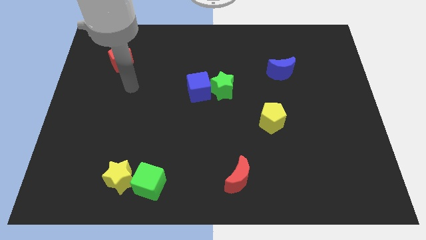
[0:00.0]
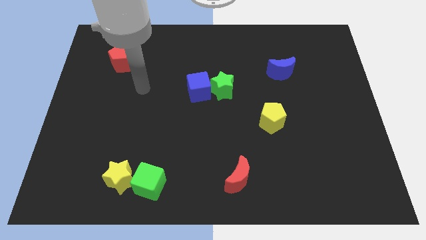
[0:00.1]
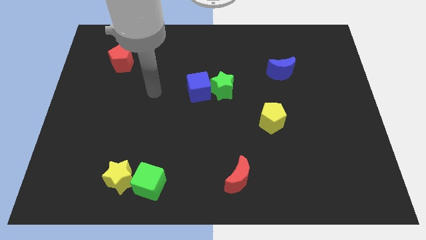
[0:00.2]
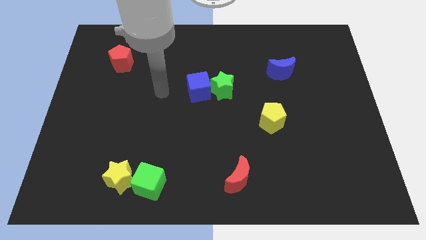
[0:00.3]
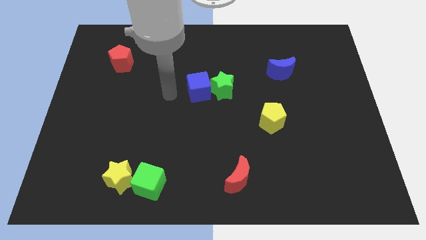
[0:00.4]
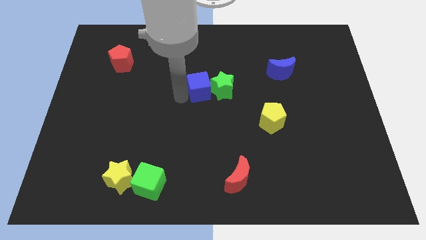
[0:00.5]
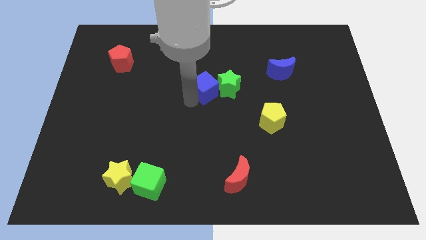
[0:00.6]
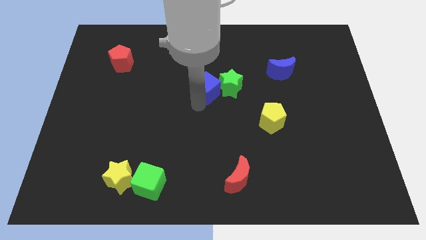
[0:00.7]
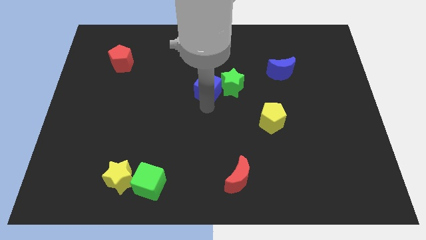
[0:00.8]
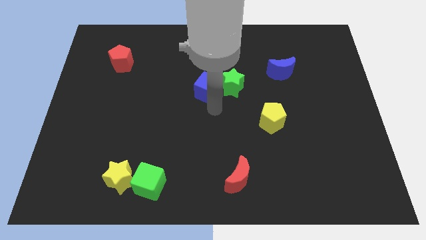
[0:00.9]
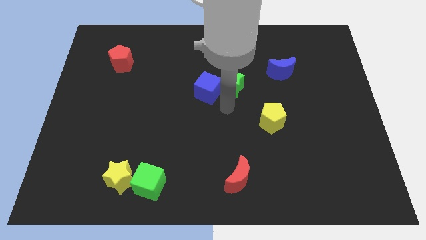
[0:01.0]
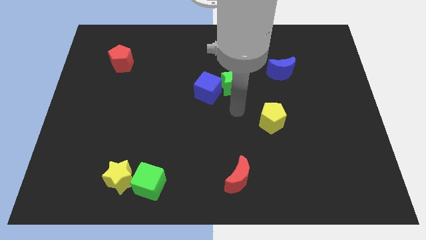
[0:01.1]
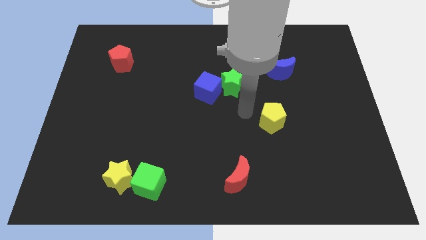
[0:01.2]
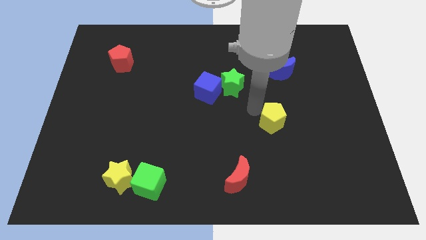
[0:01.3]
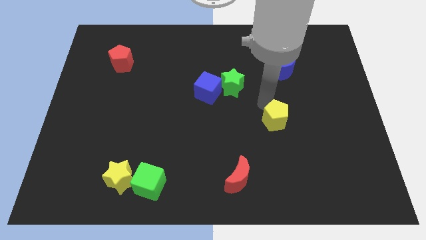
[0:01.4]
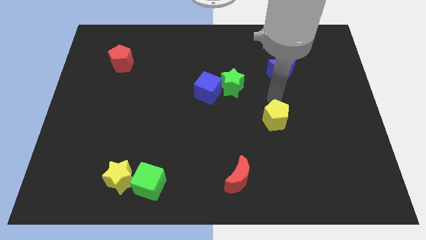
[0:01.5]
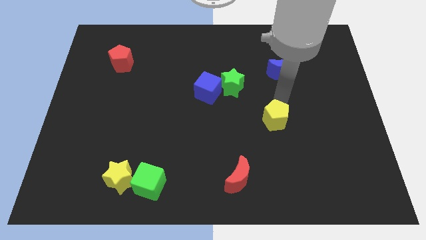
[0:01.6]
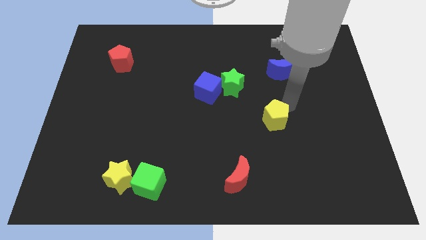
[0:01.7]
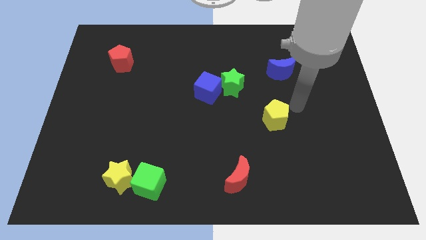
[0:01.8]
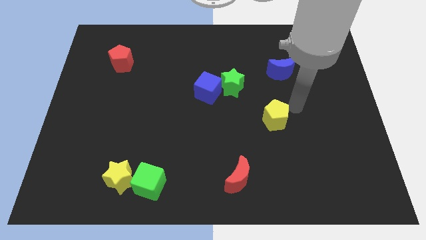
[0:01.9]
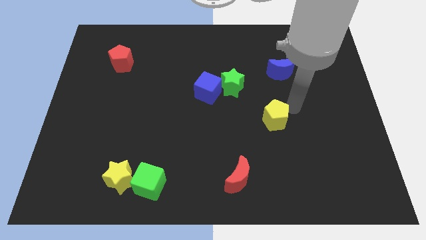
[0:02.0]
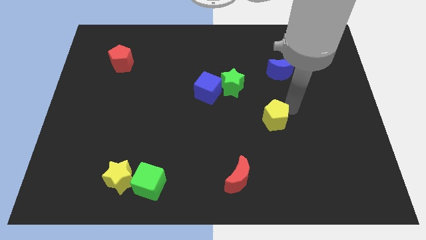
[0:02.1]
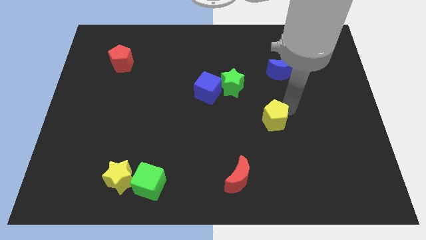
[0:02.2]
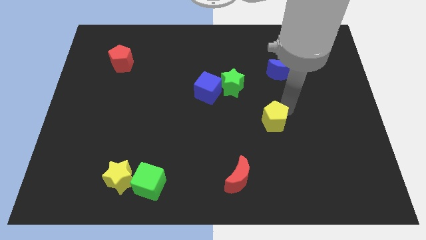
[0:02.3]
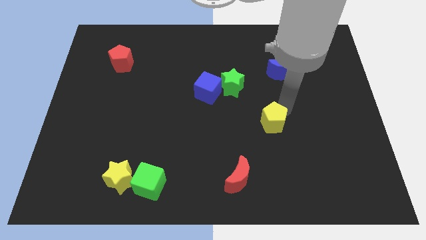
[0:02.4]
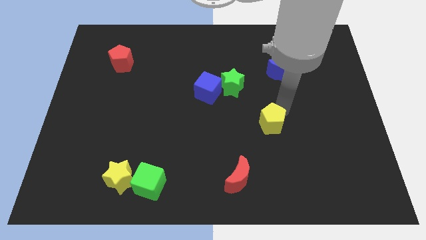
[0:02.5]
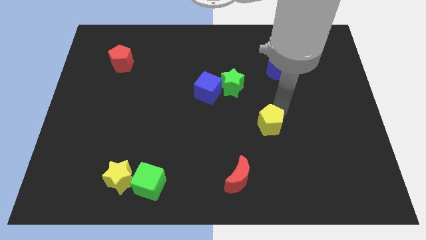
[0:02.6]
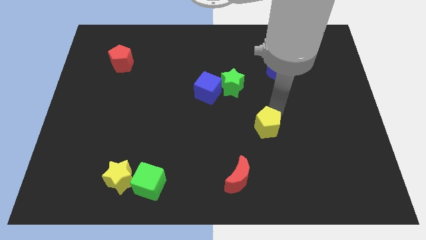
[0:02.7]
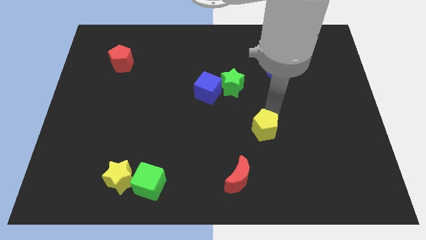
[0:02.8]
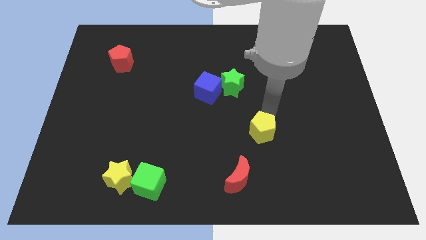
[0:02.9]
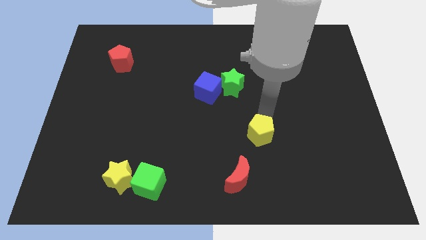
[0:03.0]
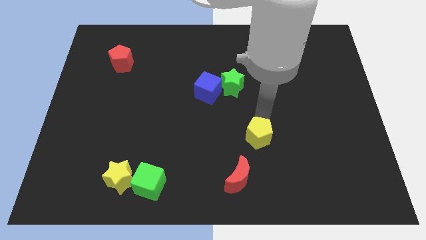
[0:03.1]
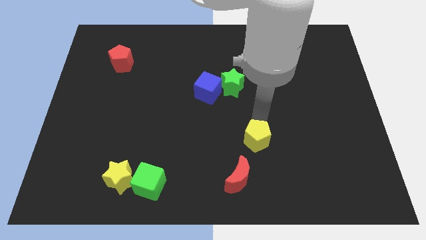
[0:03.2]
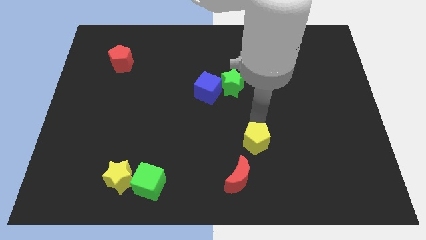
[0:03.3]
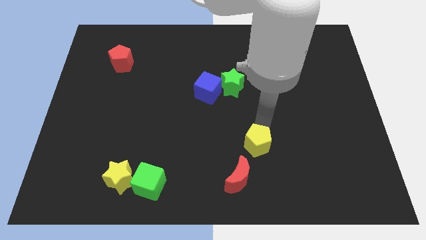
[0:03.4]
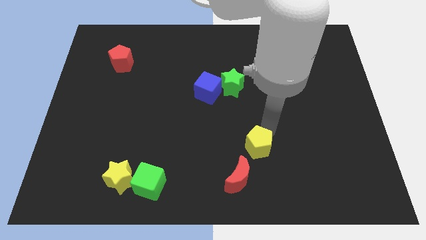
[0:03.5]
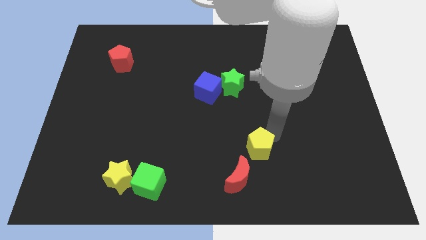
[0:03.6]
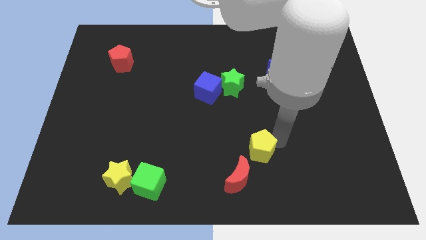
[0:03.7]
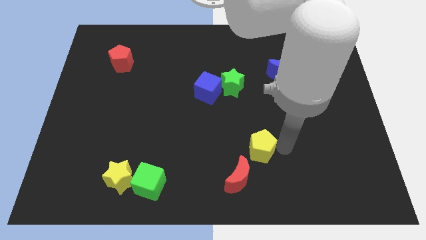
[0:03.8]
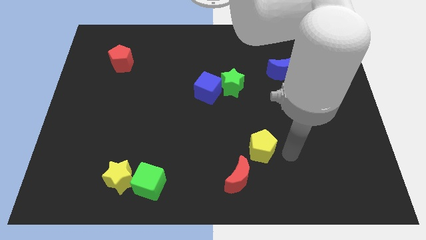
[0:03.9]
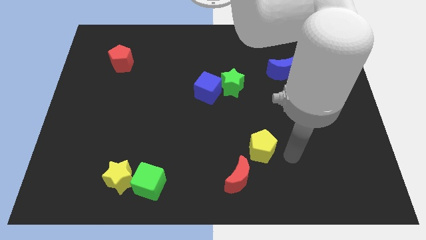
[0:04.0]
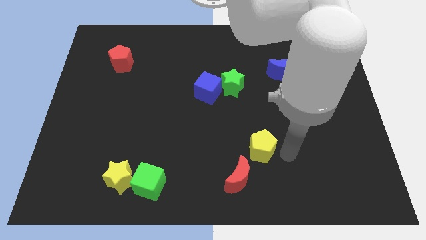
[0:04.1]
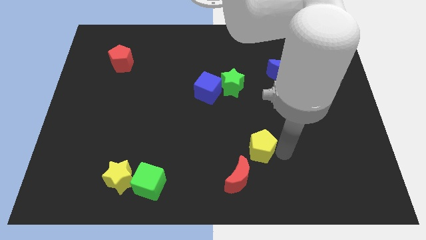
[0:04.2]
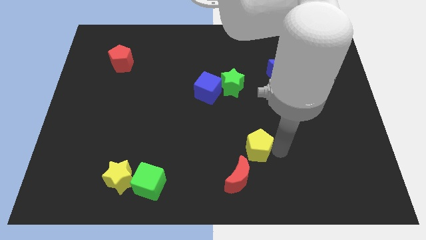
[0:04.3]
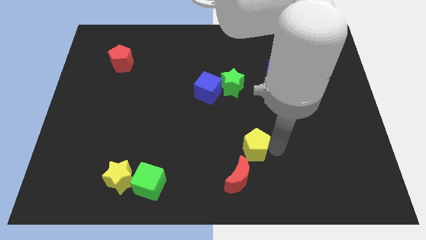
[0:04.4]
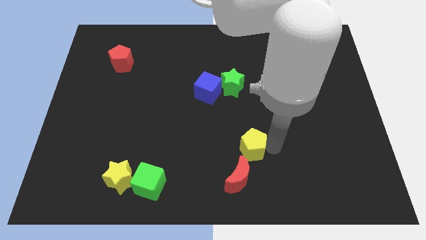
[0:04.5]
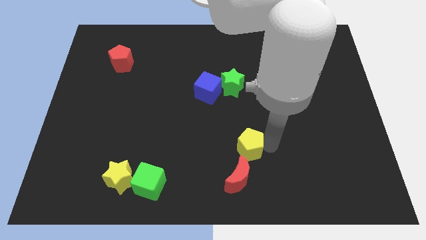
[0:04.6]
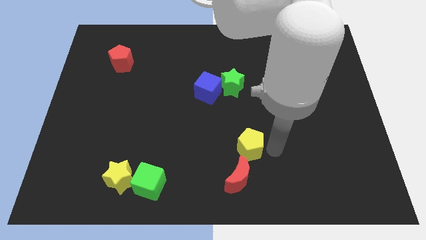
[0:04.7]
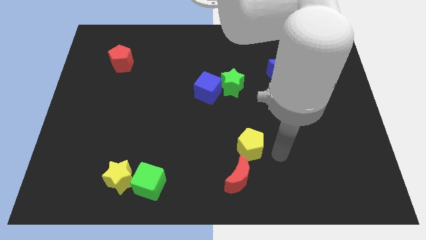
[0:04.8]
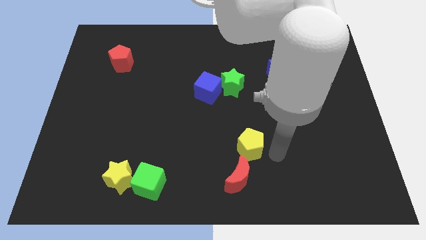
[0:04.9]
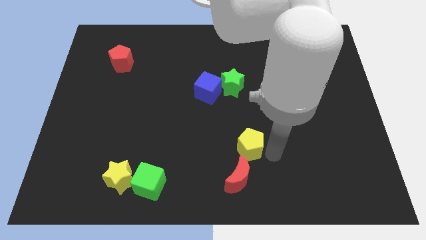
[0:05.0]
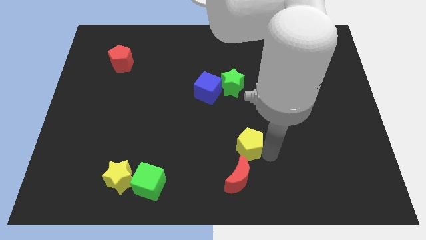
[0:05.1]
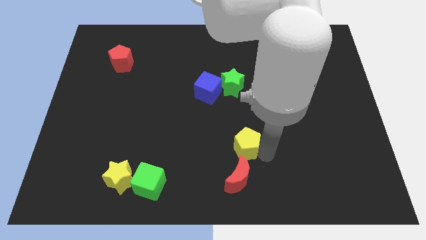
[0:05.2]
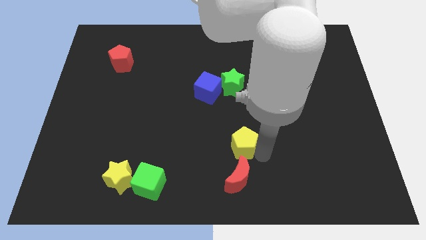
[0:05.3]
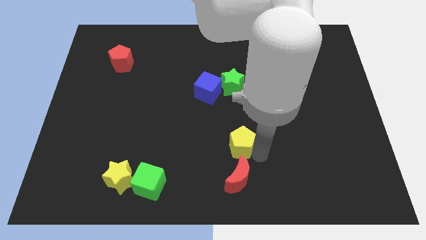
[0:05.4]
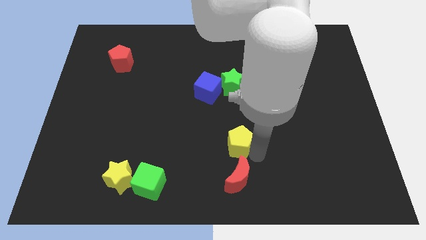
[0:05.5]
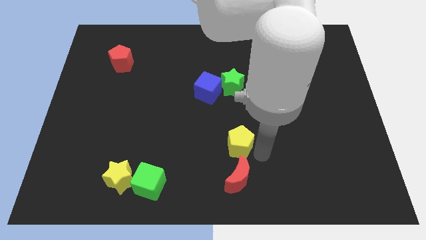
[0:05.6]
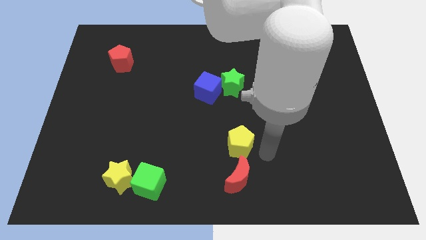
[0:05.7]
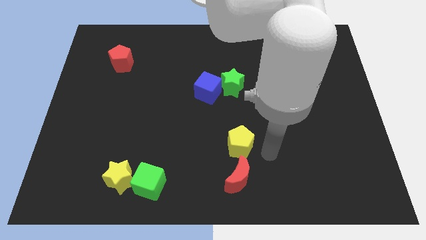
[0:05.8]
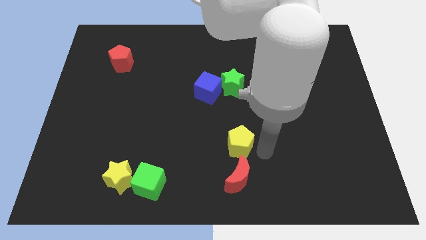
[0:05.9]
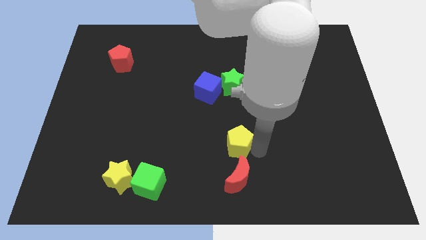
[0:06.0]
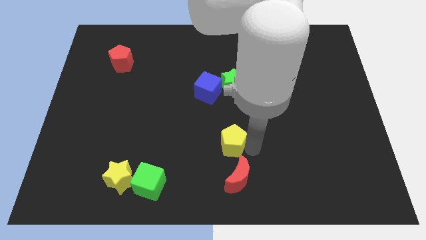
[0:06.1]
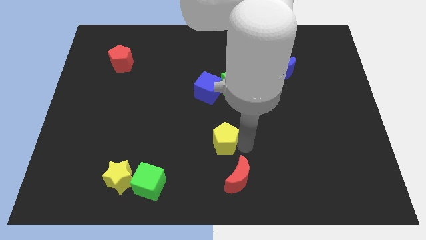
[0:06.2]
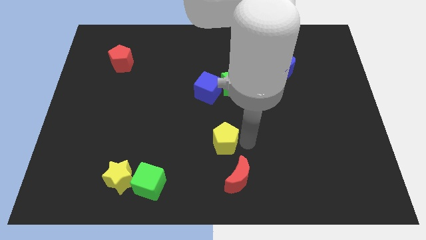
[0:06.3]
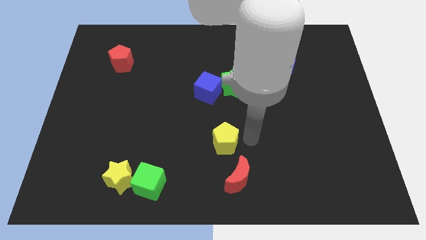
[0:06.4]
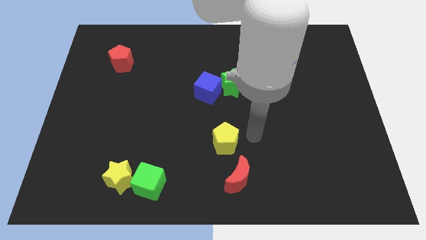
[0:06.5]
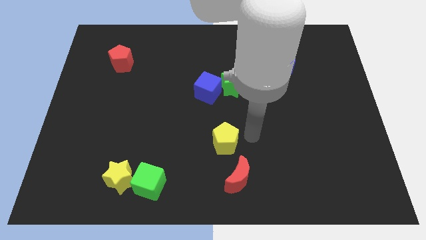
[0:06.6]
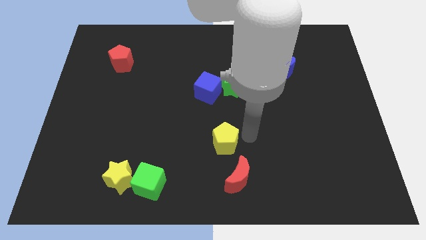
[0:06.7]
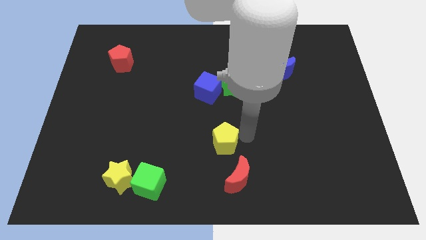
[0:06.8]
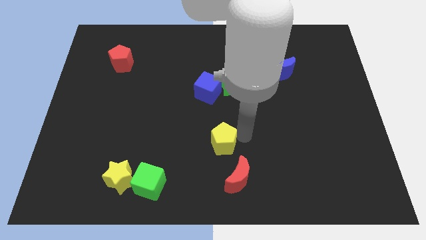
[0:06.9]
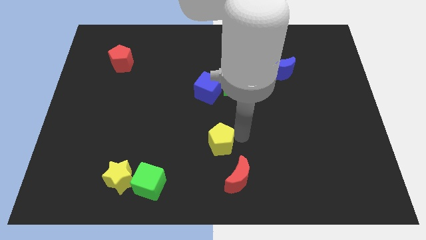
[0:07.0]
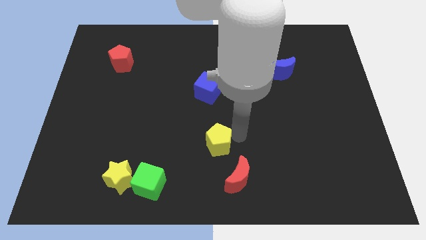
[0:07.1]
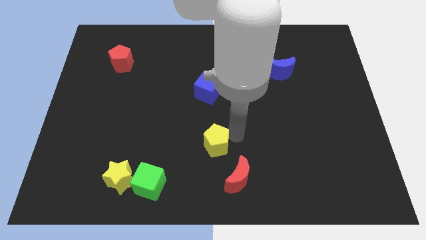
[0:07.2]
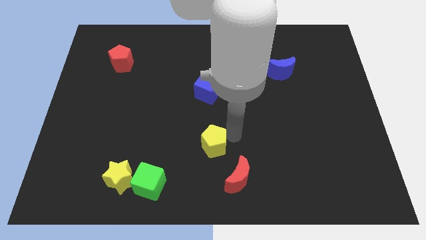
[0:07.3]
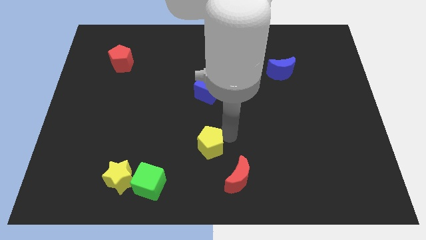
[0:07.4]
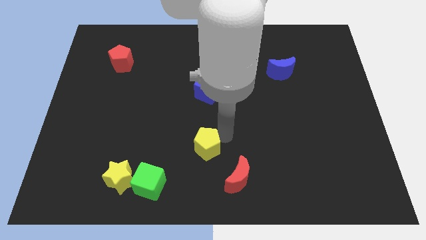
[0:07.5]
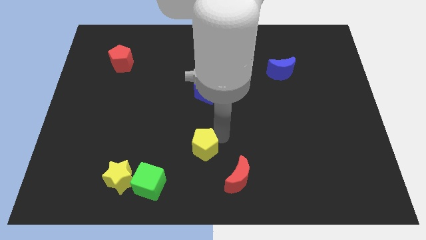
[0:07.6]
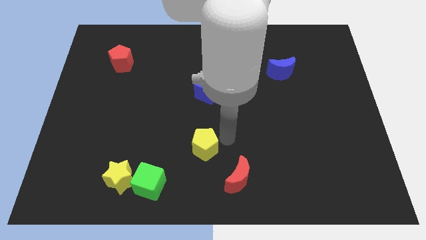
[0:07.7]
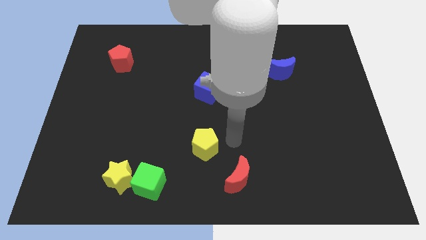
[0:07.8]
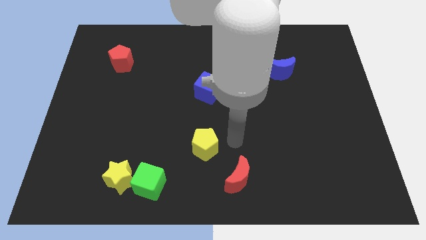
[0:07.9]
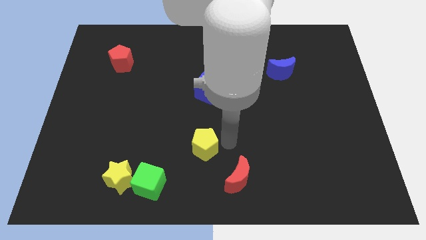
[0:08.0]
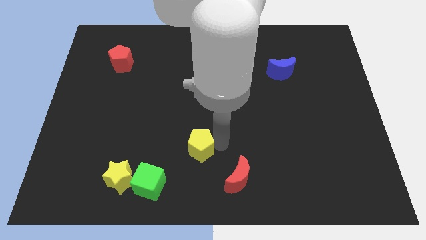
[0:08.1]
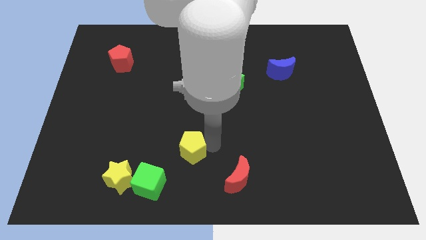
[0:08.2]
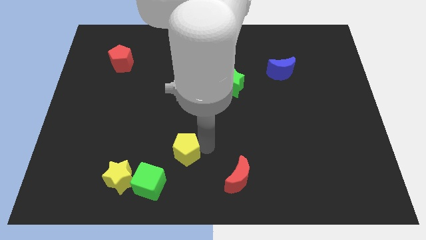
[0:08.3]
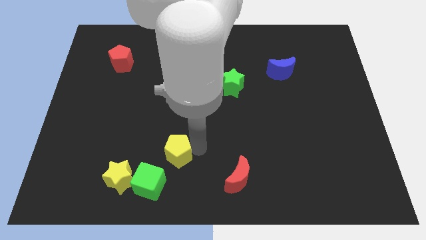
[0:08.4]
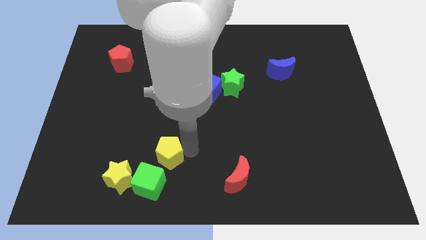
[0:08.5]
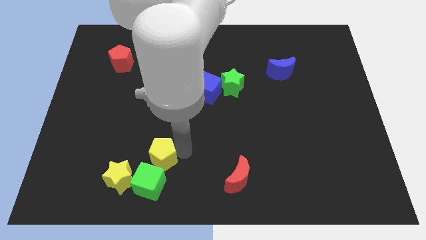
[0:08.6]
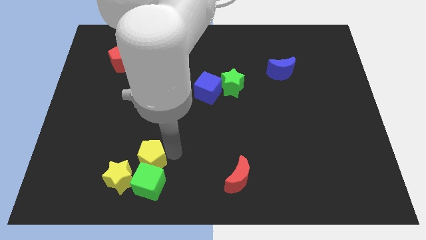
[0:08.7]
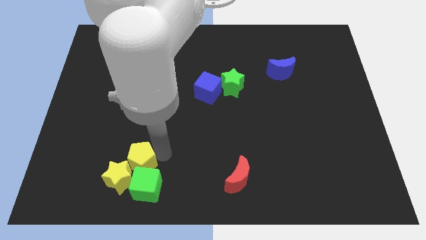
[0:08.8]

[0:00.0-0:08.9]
push the yellow pentagon next to the yellow star
